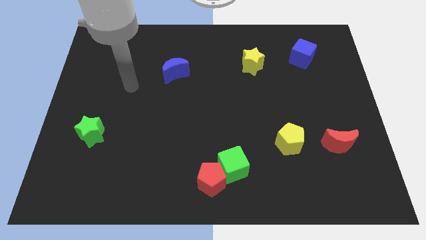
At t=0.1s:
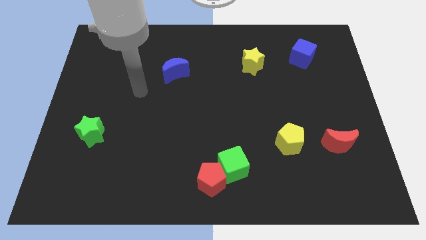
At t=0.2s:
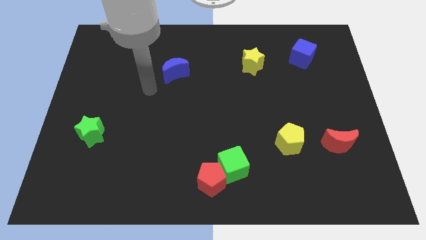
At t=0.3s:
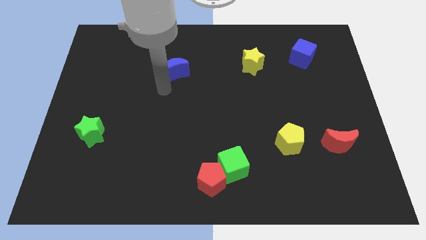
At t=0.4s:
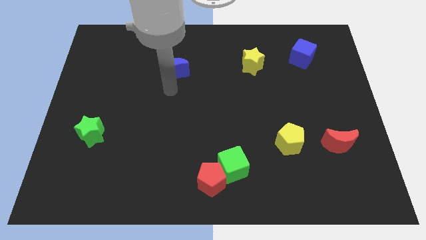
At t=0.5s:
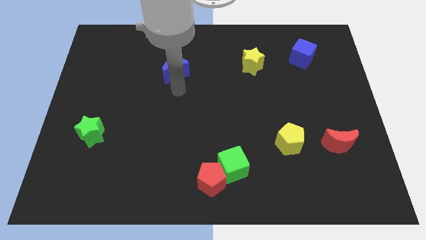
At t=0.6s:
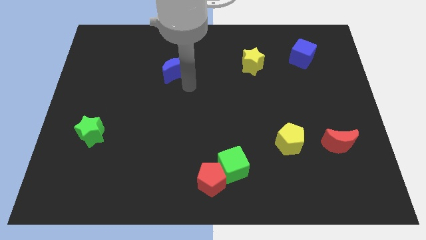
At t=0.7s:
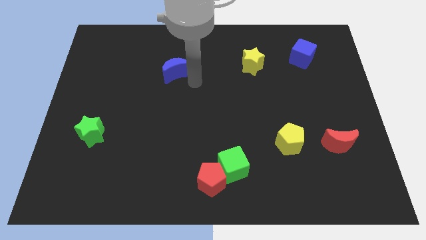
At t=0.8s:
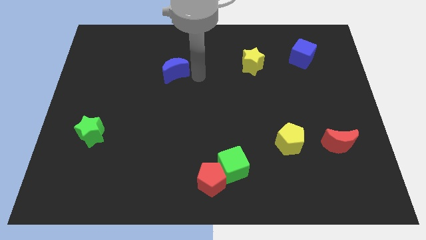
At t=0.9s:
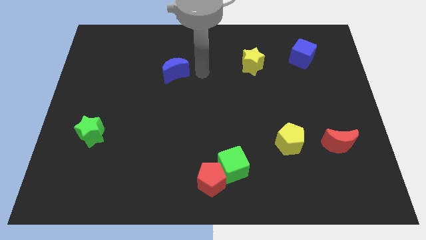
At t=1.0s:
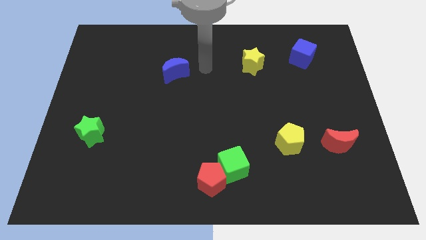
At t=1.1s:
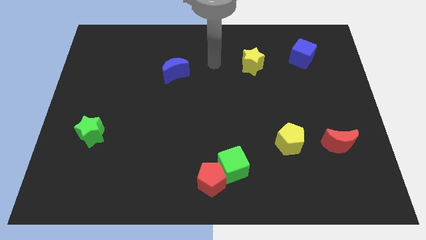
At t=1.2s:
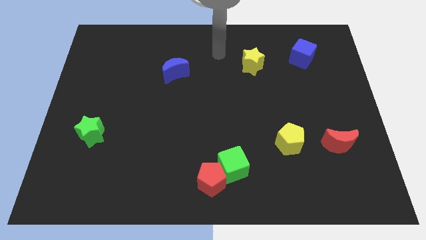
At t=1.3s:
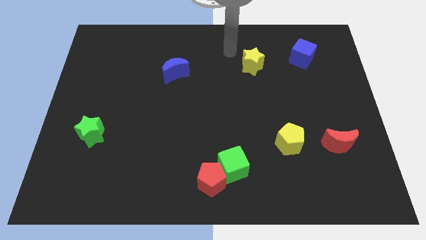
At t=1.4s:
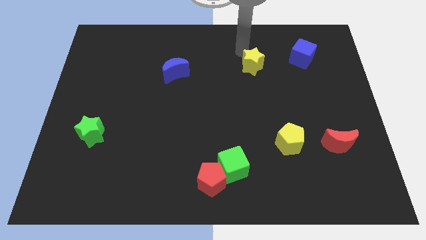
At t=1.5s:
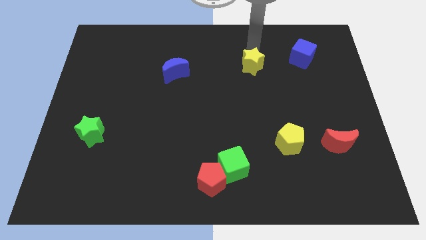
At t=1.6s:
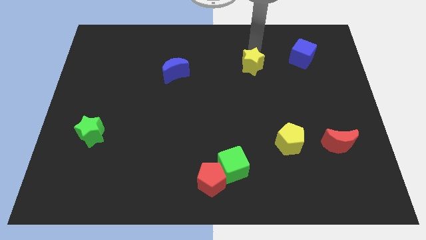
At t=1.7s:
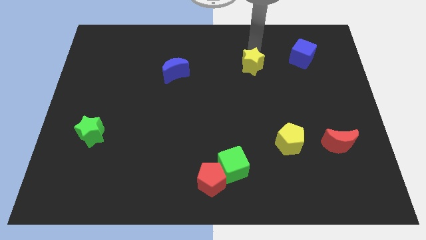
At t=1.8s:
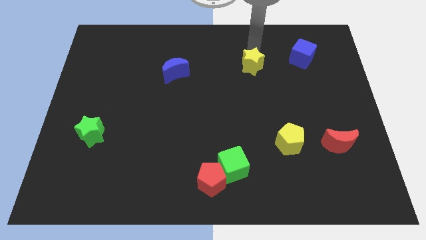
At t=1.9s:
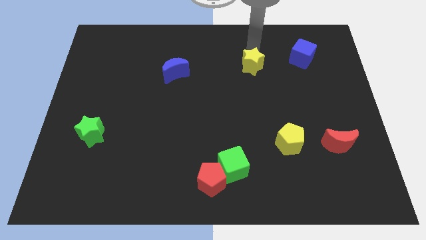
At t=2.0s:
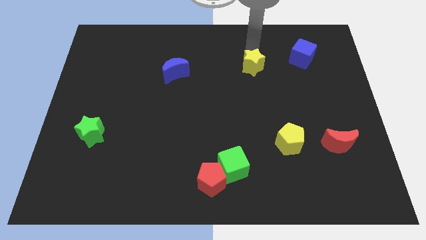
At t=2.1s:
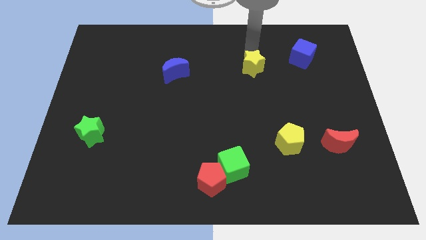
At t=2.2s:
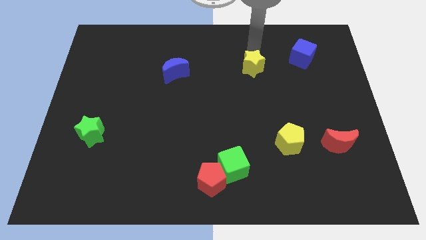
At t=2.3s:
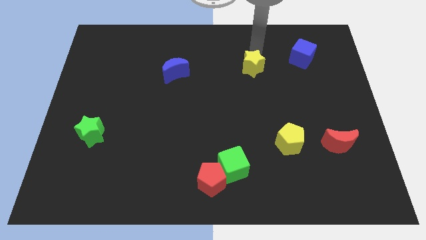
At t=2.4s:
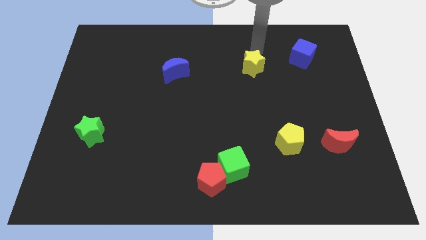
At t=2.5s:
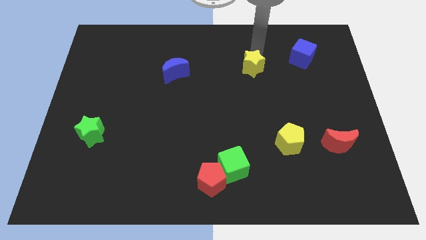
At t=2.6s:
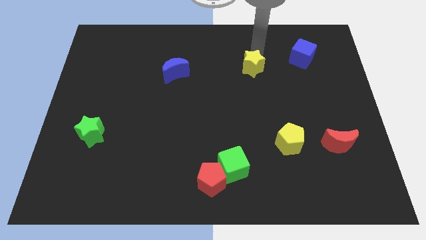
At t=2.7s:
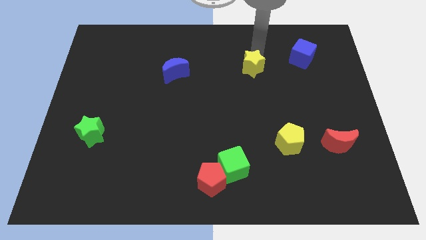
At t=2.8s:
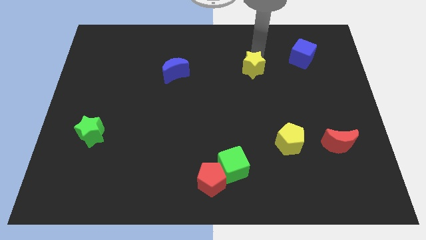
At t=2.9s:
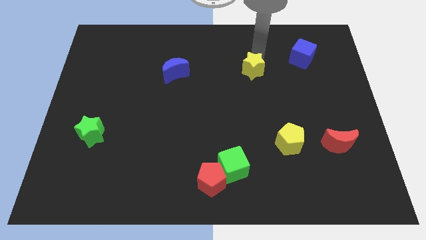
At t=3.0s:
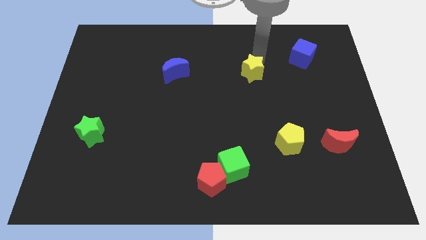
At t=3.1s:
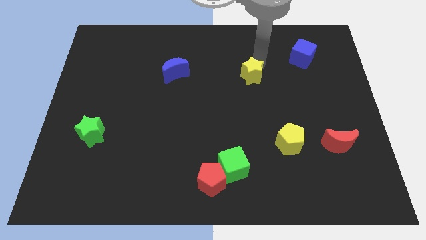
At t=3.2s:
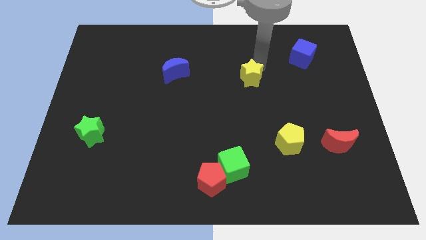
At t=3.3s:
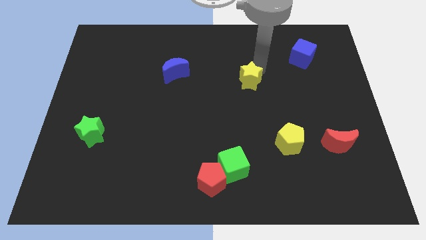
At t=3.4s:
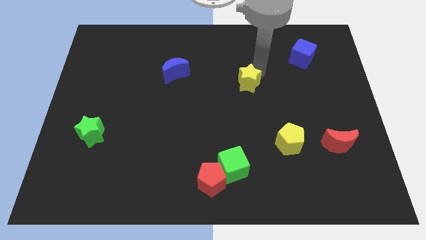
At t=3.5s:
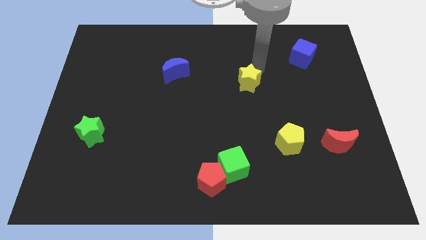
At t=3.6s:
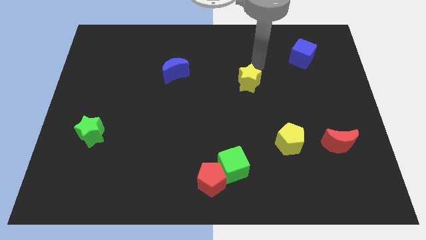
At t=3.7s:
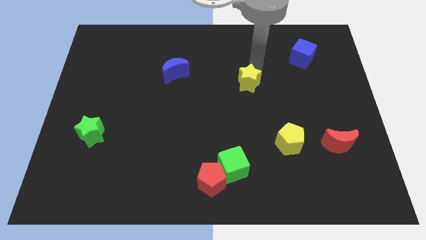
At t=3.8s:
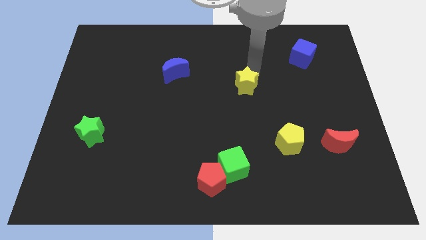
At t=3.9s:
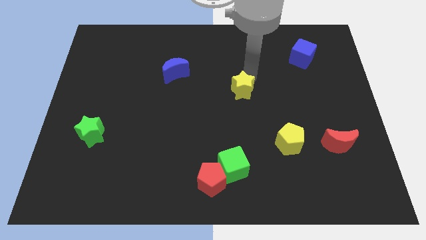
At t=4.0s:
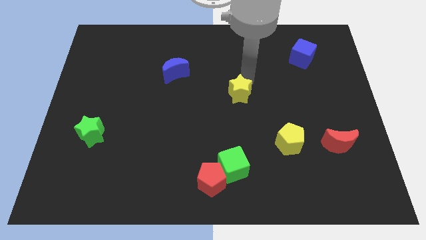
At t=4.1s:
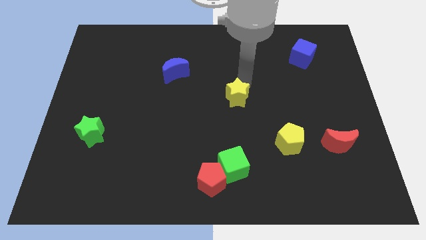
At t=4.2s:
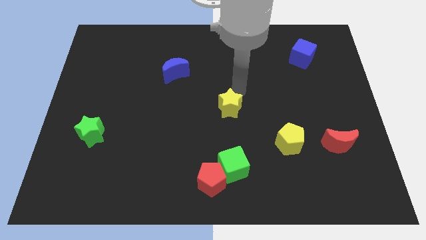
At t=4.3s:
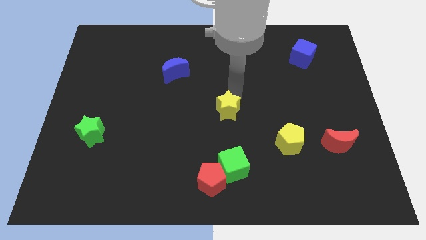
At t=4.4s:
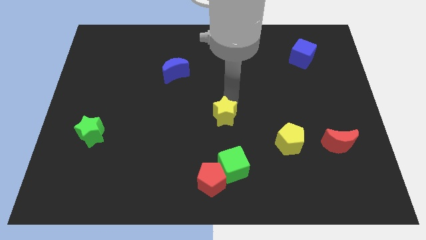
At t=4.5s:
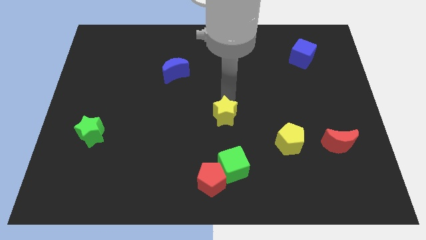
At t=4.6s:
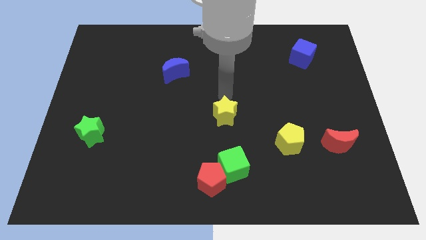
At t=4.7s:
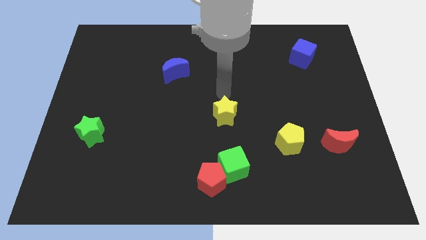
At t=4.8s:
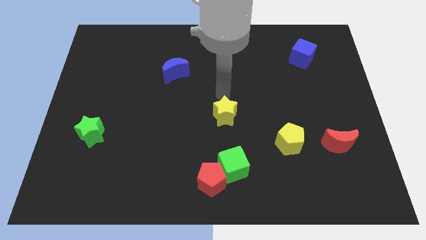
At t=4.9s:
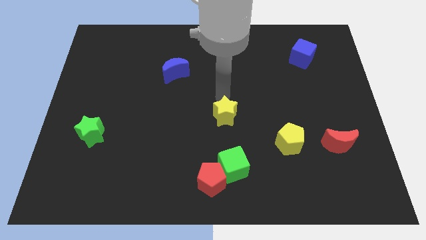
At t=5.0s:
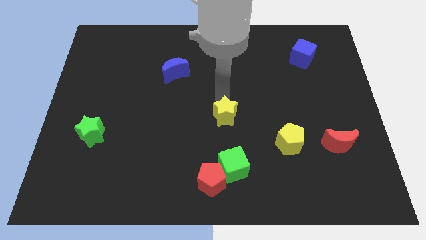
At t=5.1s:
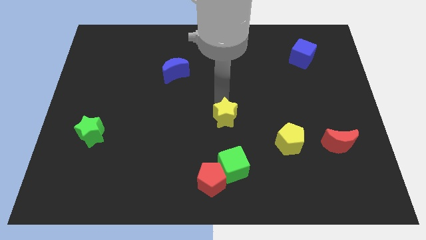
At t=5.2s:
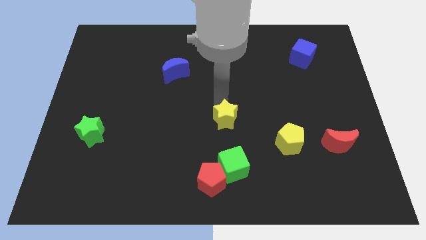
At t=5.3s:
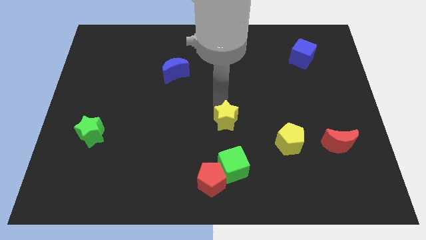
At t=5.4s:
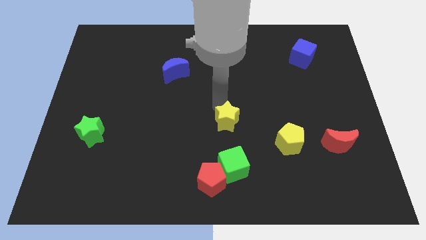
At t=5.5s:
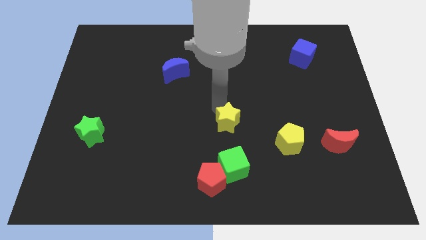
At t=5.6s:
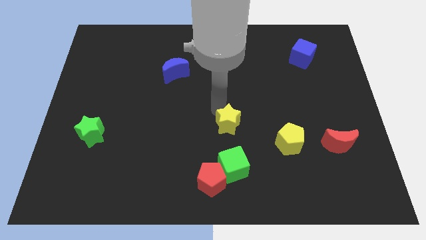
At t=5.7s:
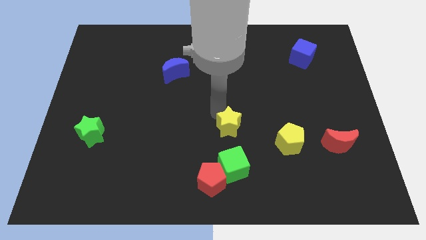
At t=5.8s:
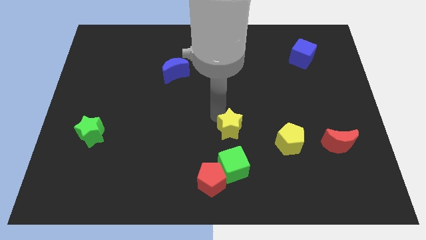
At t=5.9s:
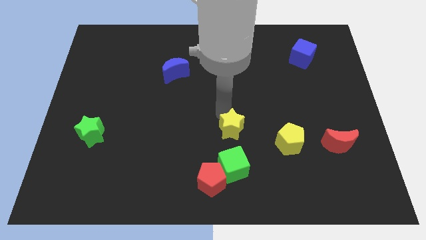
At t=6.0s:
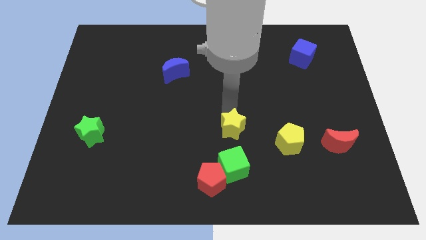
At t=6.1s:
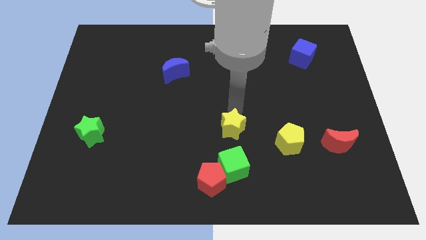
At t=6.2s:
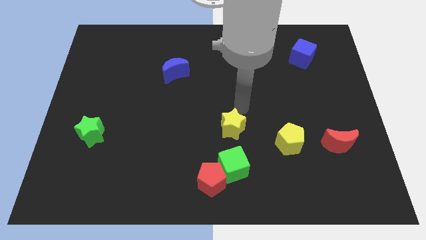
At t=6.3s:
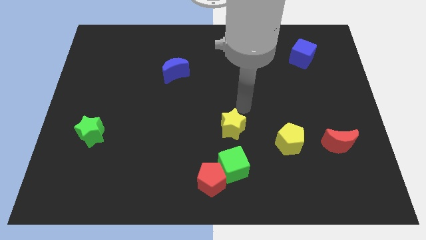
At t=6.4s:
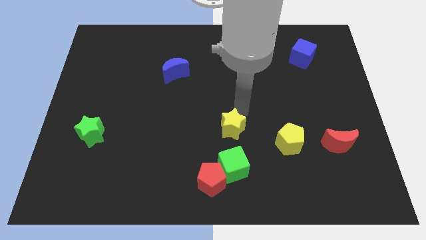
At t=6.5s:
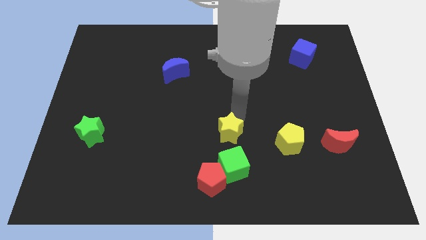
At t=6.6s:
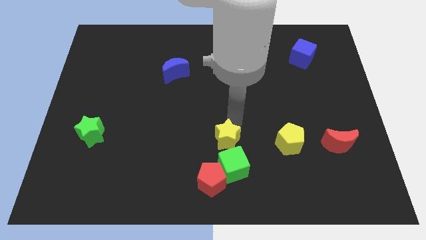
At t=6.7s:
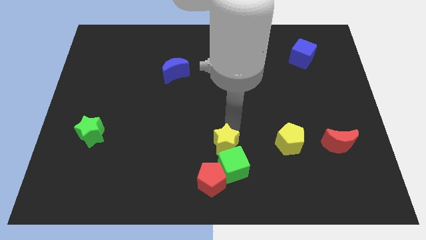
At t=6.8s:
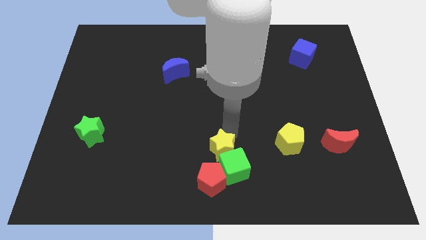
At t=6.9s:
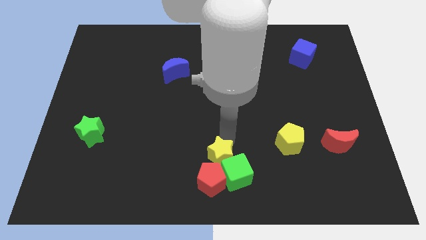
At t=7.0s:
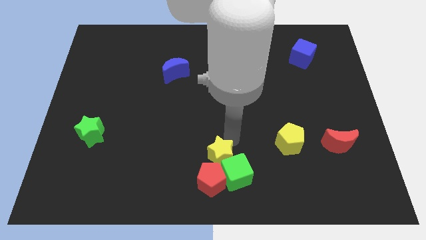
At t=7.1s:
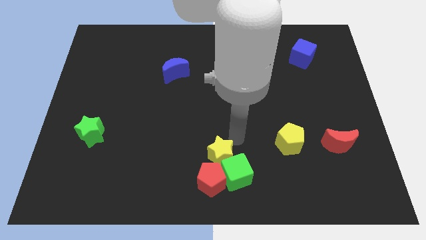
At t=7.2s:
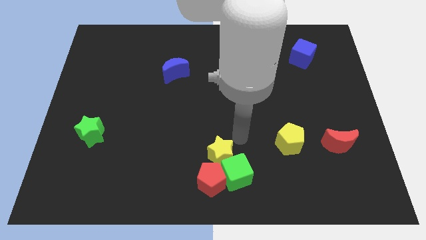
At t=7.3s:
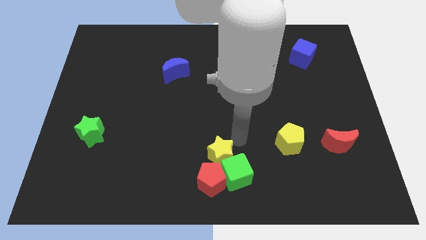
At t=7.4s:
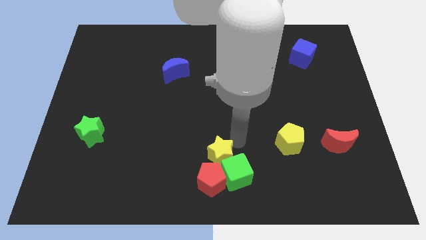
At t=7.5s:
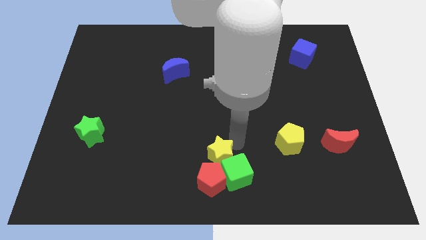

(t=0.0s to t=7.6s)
slide the yellow star next to the red pentagon
